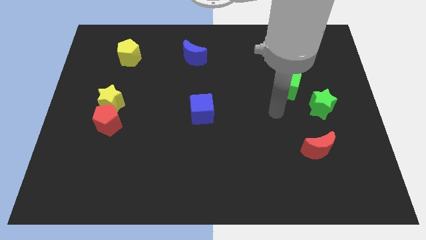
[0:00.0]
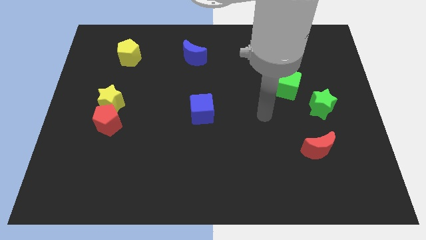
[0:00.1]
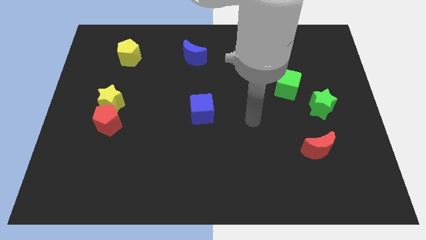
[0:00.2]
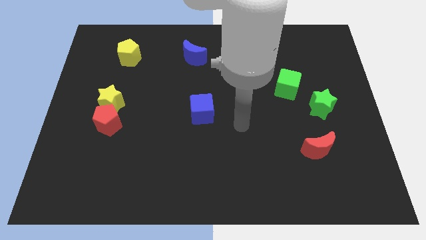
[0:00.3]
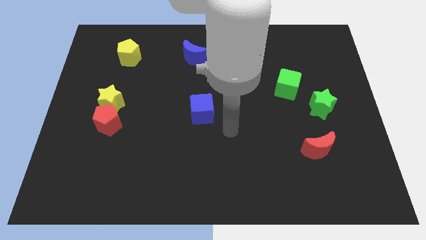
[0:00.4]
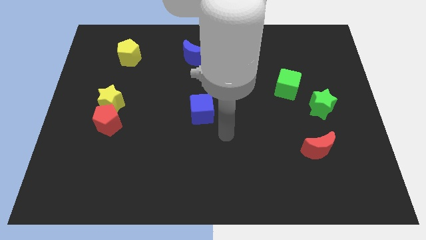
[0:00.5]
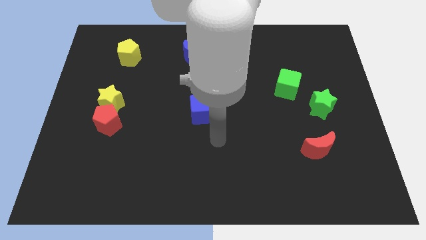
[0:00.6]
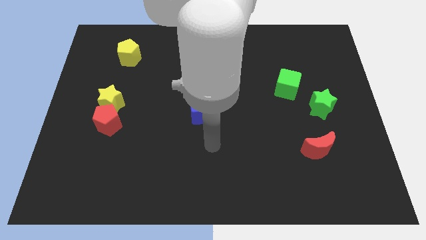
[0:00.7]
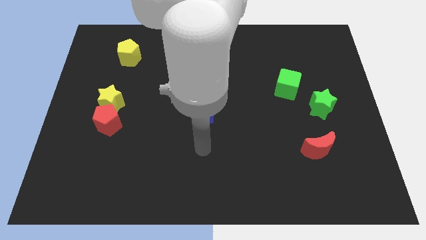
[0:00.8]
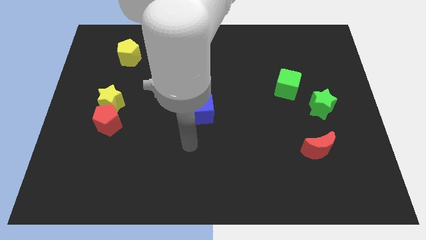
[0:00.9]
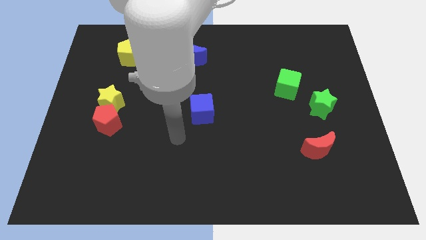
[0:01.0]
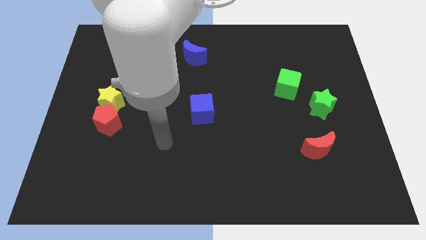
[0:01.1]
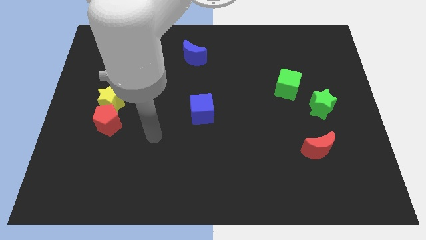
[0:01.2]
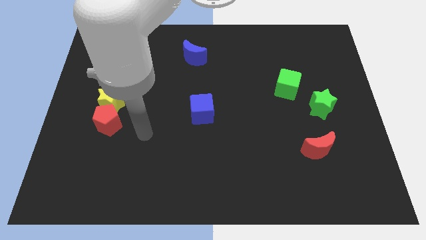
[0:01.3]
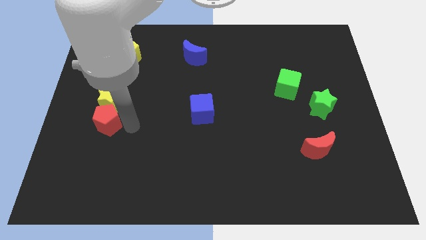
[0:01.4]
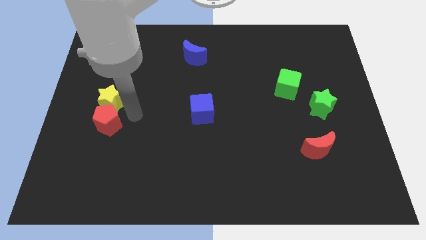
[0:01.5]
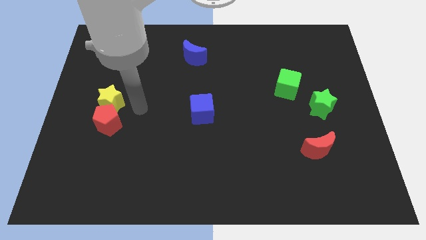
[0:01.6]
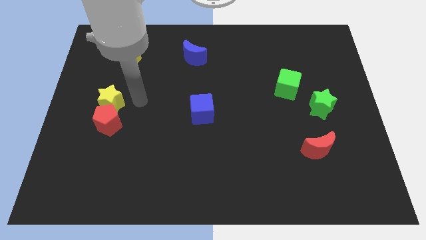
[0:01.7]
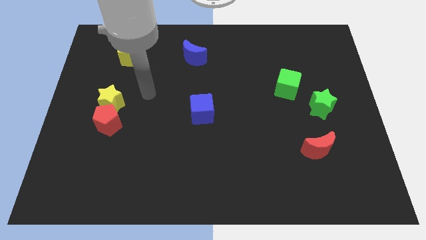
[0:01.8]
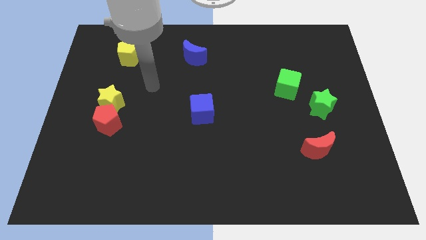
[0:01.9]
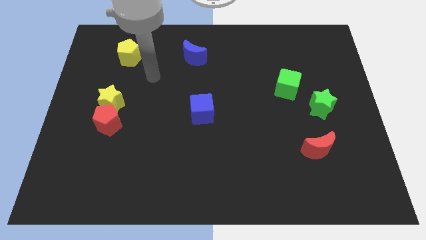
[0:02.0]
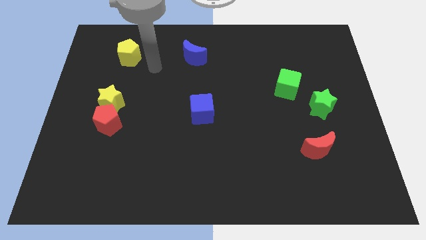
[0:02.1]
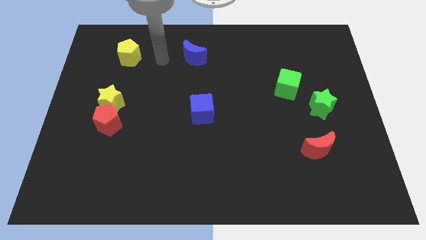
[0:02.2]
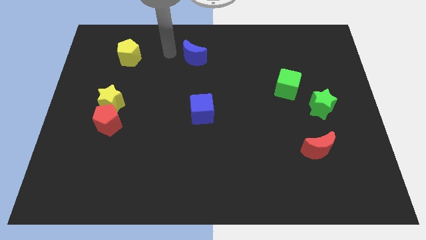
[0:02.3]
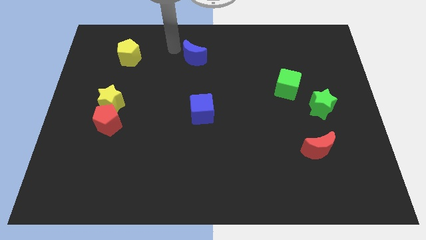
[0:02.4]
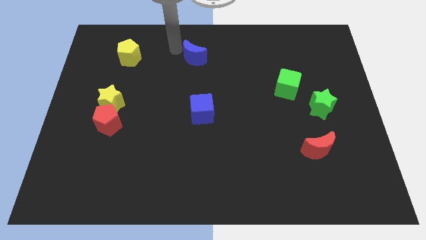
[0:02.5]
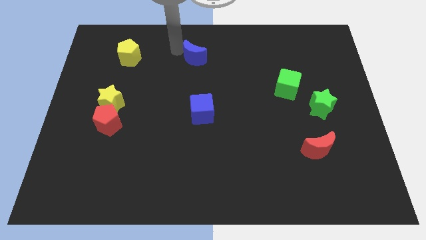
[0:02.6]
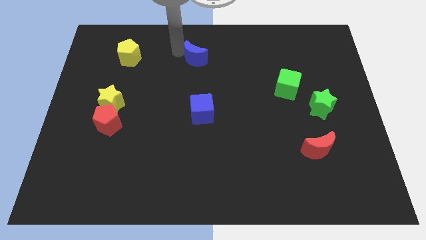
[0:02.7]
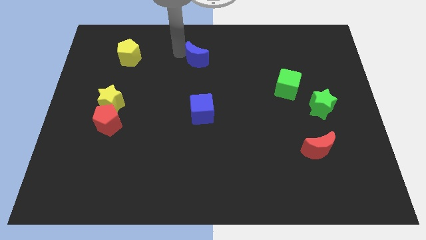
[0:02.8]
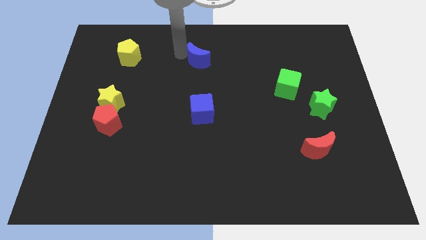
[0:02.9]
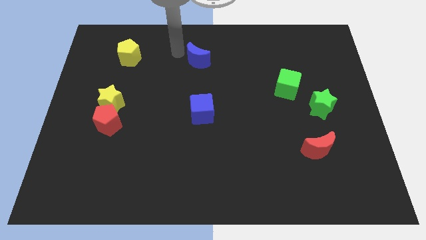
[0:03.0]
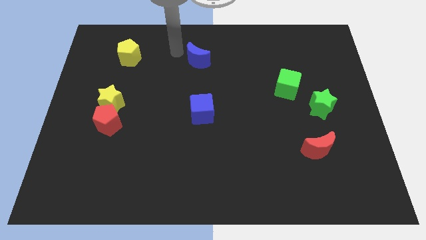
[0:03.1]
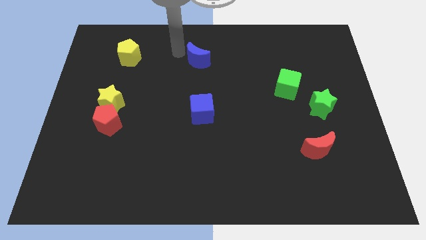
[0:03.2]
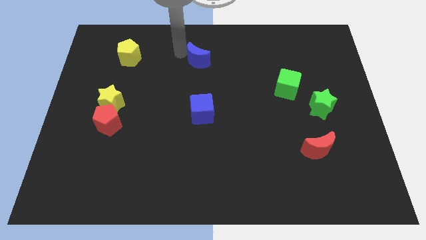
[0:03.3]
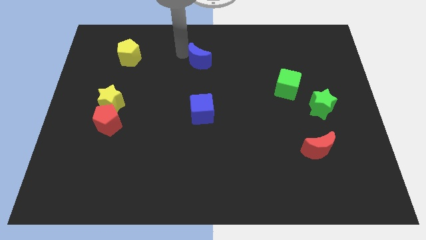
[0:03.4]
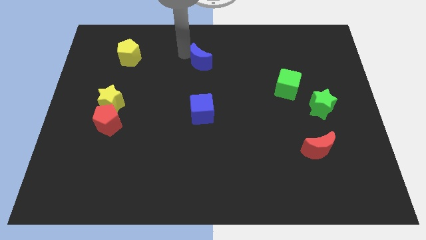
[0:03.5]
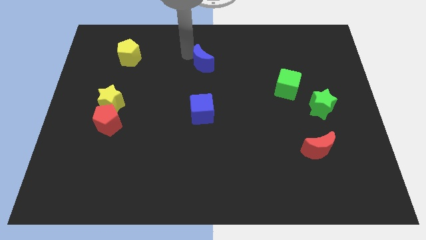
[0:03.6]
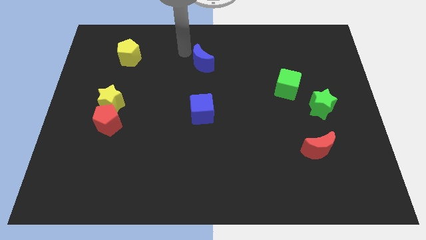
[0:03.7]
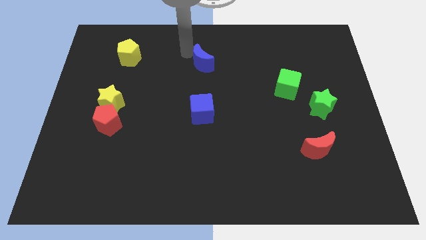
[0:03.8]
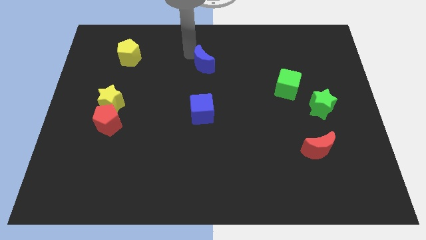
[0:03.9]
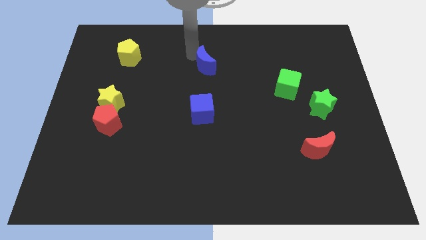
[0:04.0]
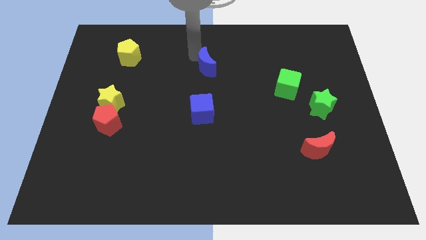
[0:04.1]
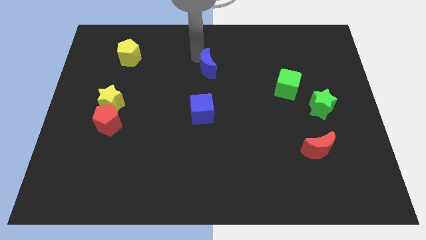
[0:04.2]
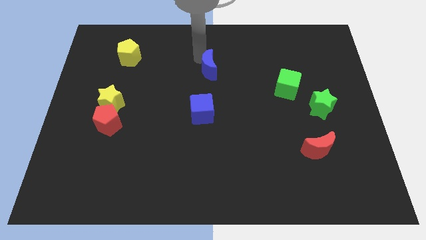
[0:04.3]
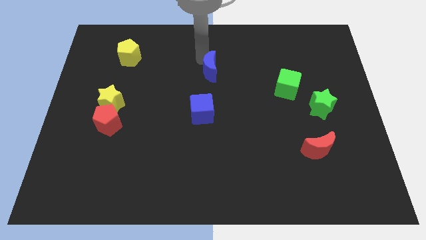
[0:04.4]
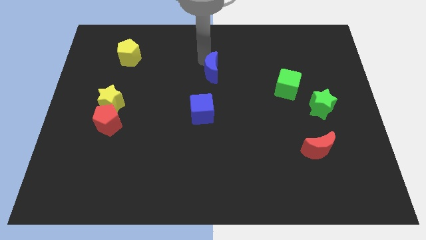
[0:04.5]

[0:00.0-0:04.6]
slightly push the blue moon down and right

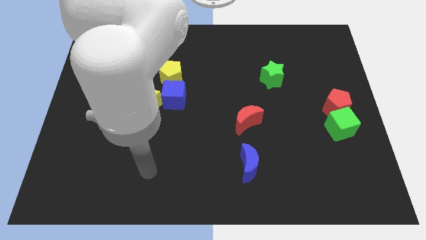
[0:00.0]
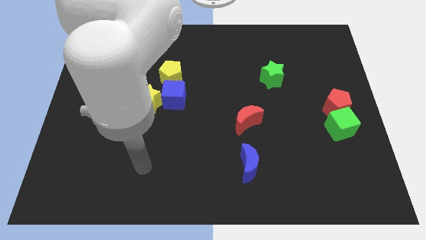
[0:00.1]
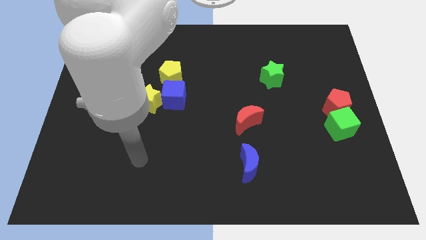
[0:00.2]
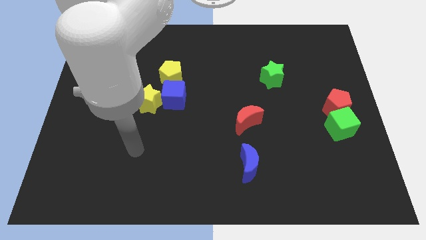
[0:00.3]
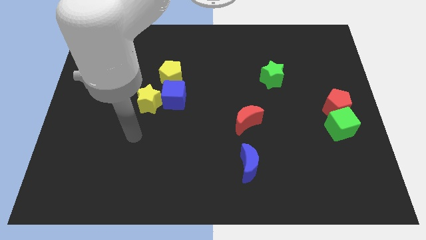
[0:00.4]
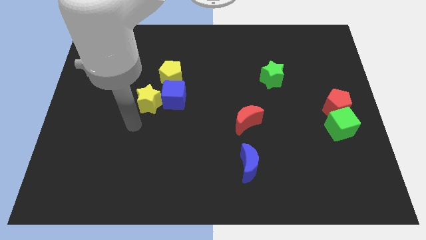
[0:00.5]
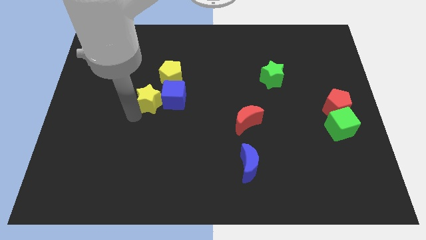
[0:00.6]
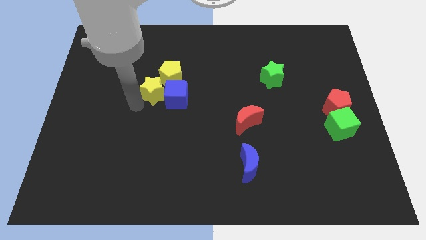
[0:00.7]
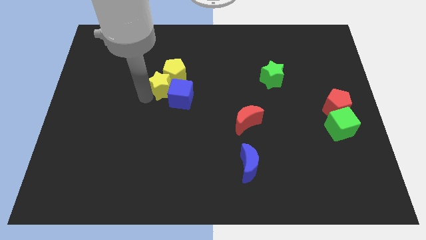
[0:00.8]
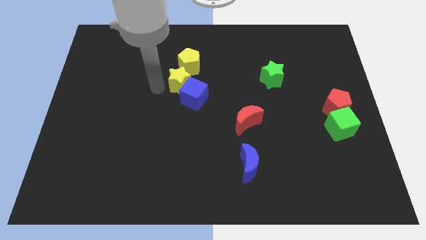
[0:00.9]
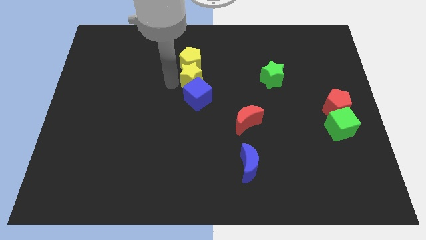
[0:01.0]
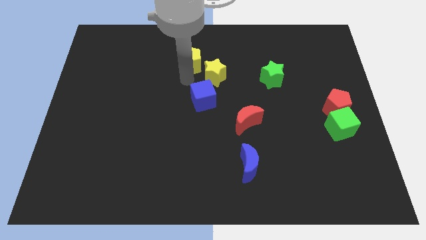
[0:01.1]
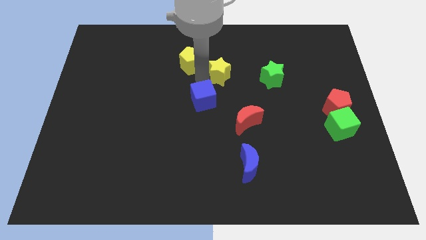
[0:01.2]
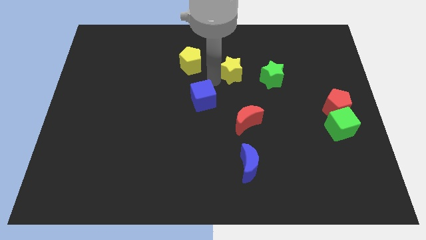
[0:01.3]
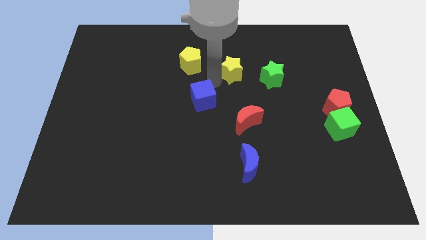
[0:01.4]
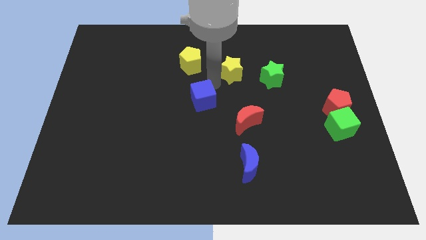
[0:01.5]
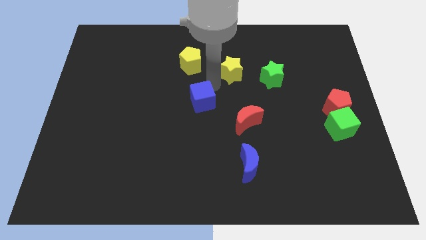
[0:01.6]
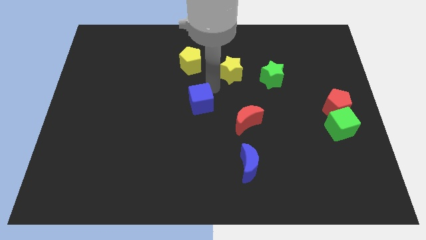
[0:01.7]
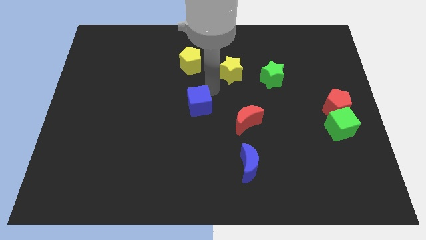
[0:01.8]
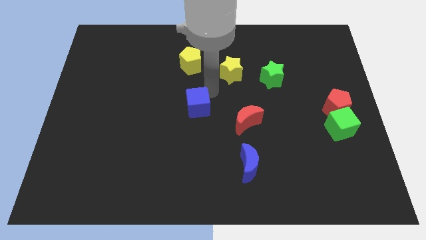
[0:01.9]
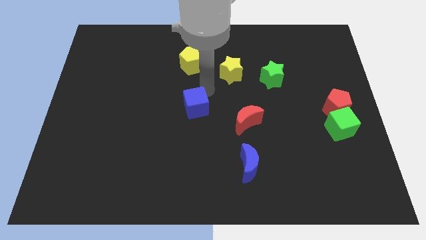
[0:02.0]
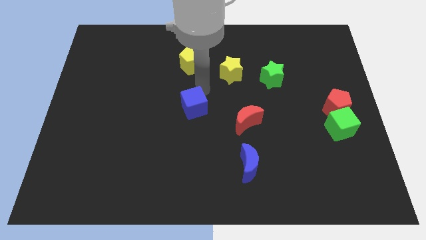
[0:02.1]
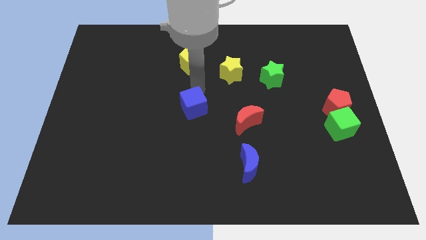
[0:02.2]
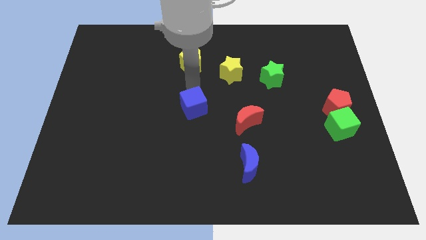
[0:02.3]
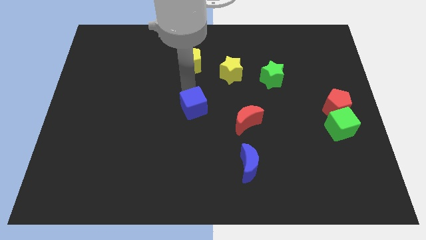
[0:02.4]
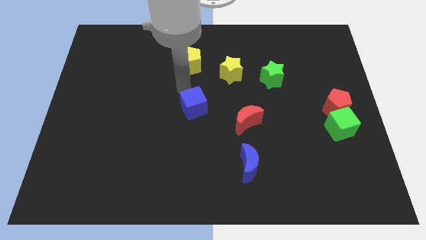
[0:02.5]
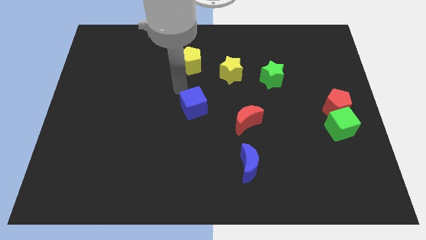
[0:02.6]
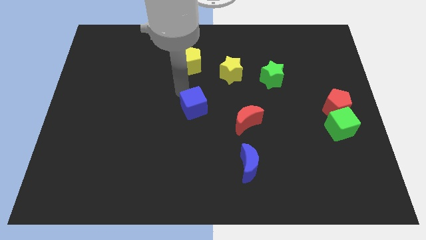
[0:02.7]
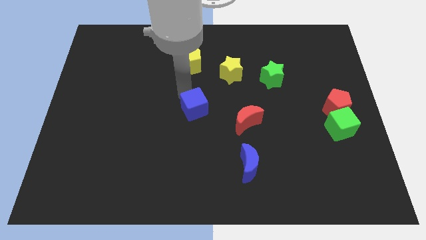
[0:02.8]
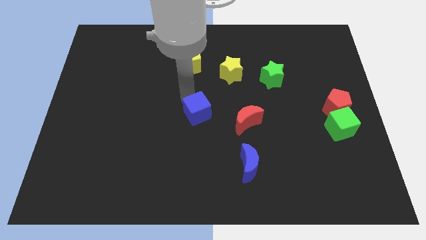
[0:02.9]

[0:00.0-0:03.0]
push the blue cube diagonally down and to the right a little bit
